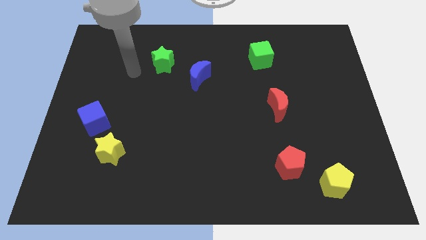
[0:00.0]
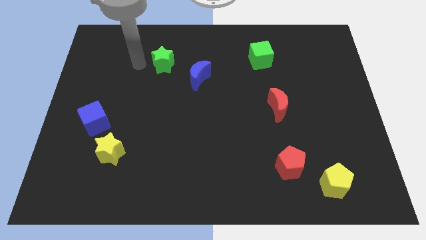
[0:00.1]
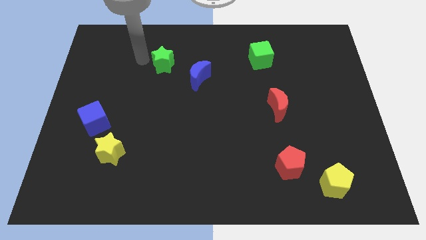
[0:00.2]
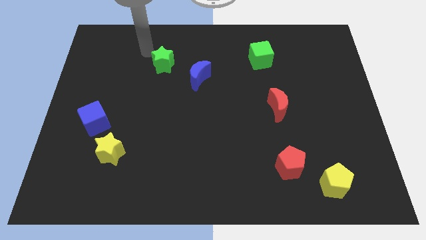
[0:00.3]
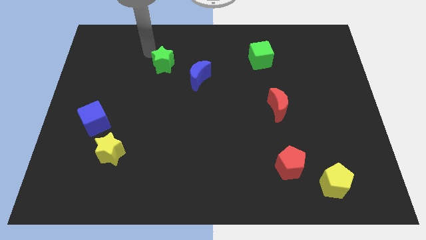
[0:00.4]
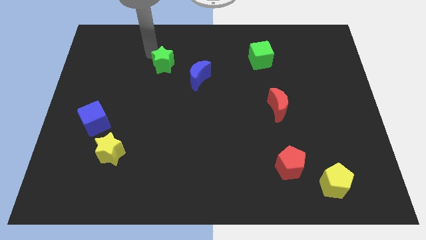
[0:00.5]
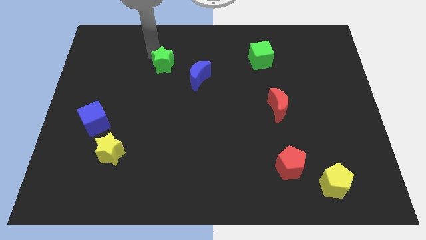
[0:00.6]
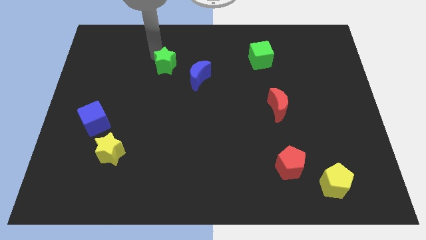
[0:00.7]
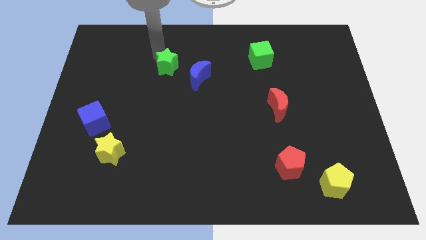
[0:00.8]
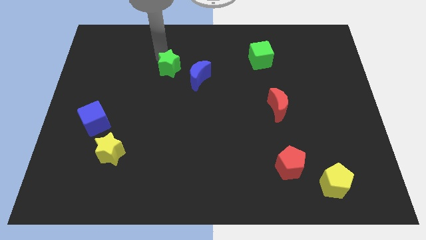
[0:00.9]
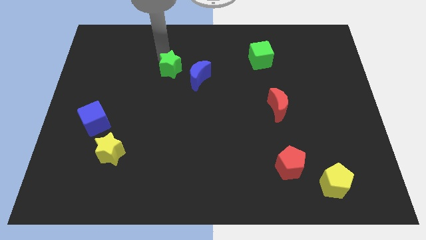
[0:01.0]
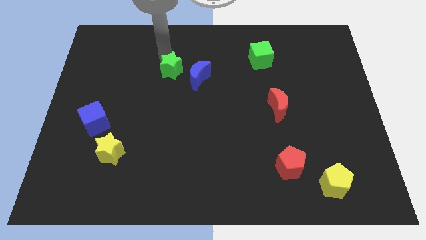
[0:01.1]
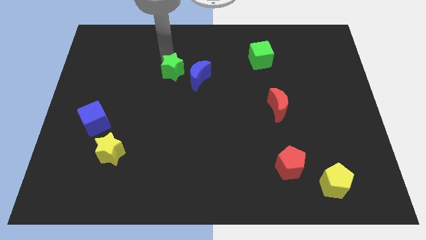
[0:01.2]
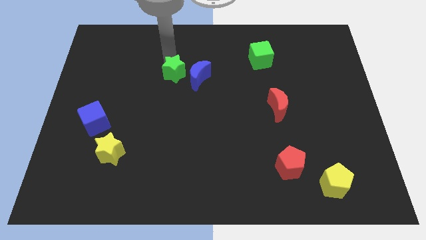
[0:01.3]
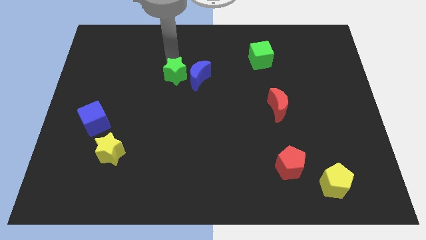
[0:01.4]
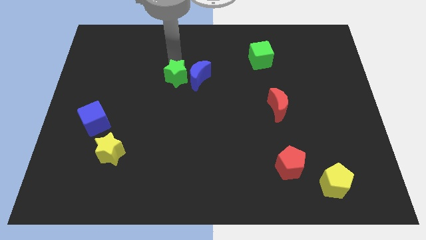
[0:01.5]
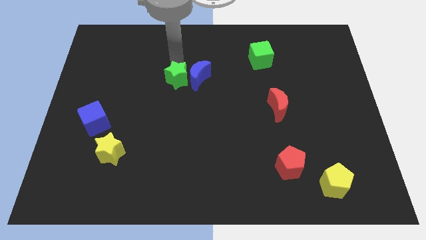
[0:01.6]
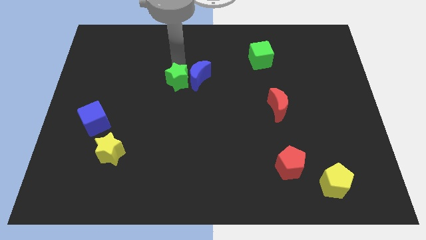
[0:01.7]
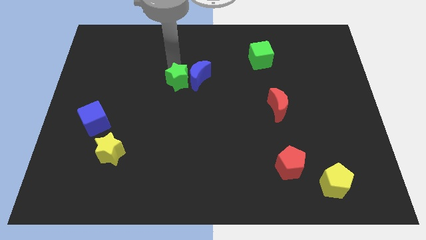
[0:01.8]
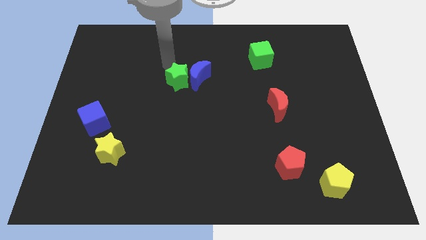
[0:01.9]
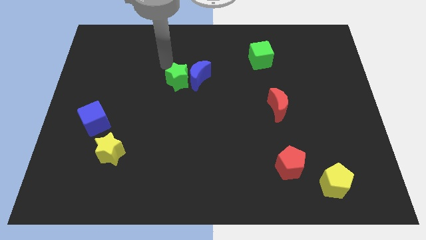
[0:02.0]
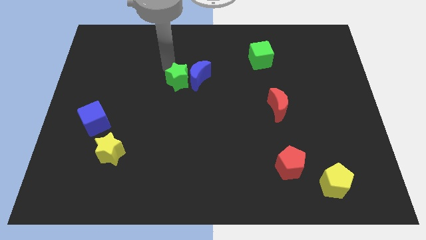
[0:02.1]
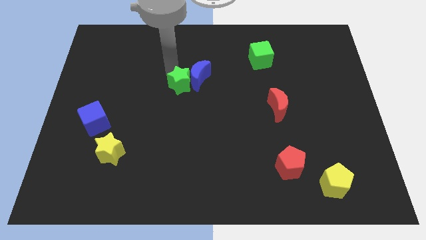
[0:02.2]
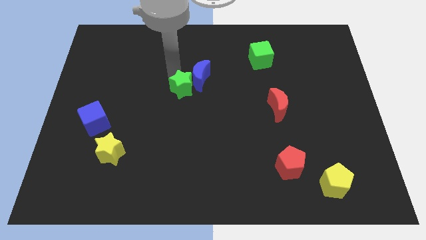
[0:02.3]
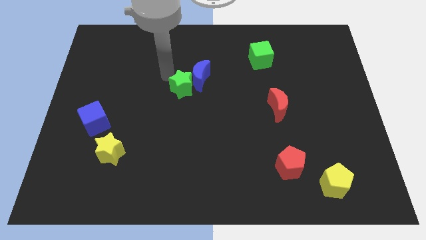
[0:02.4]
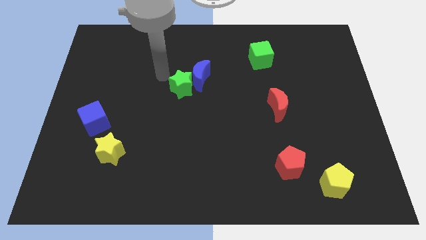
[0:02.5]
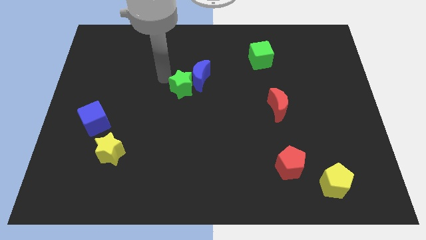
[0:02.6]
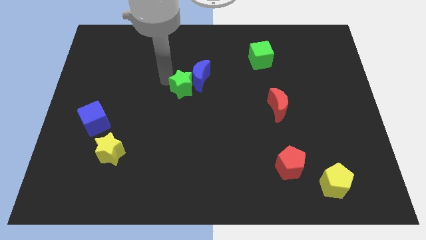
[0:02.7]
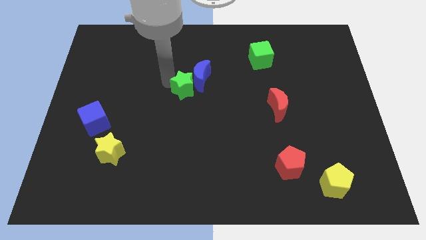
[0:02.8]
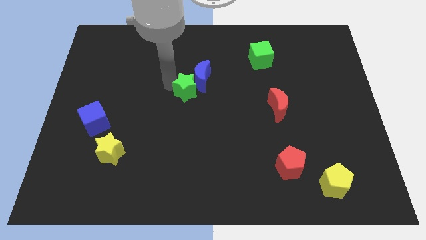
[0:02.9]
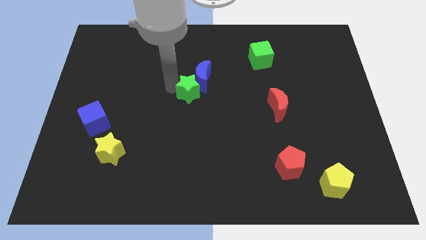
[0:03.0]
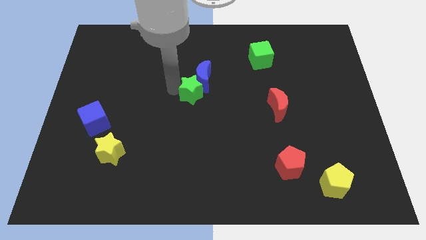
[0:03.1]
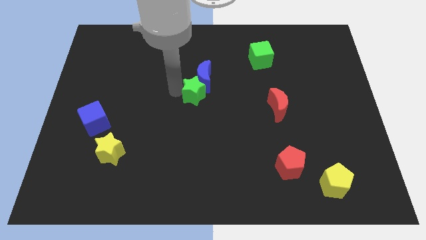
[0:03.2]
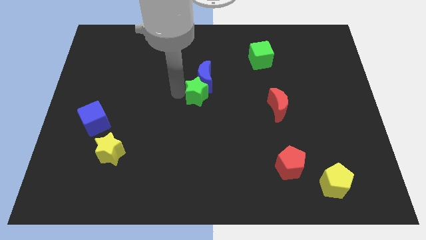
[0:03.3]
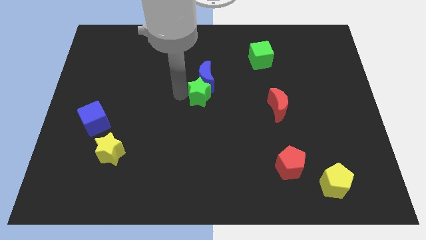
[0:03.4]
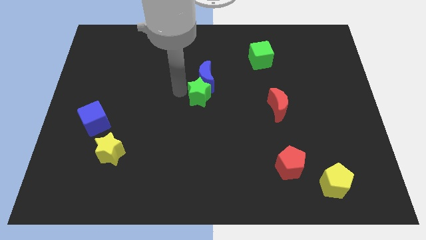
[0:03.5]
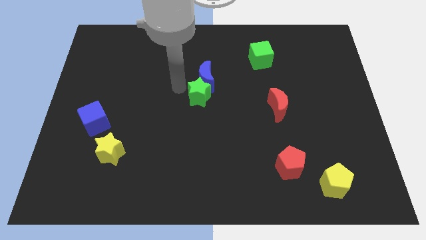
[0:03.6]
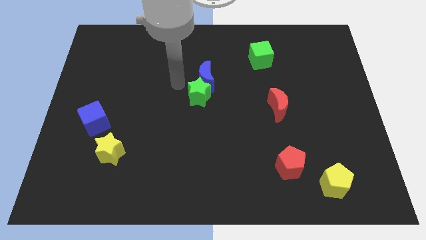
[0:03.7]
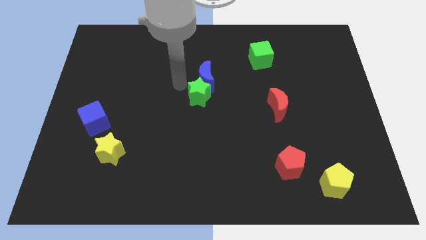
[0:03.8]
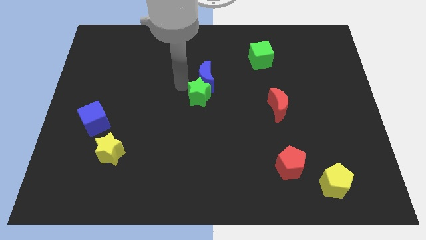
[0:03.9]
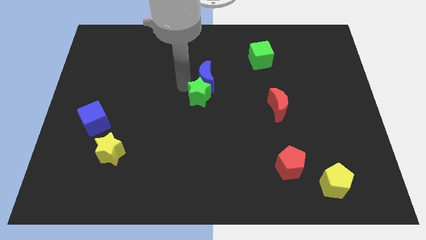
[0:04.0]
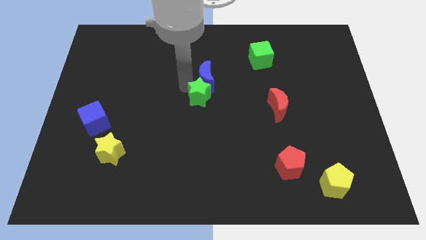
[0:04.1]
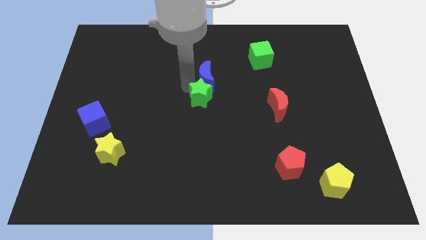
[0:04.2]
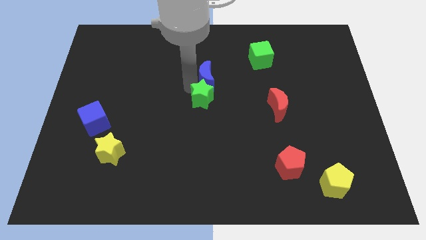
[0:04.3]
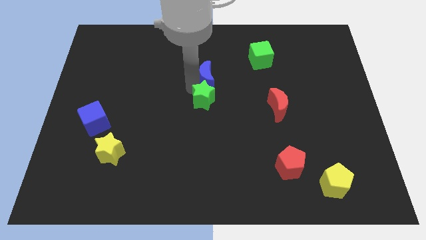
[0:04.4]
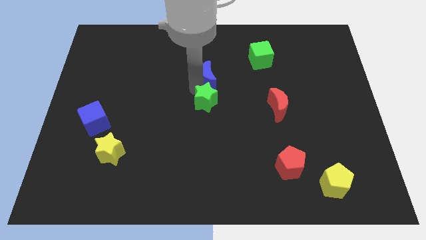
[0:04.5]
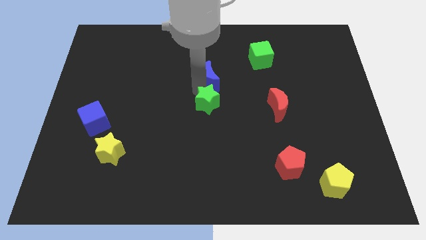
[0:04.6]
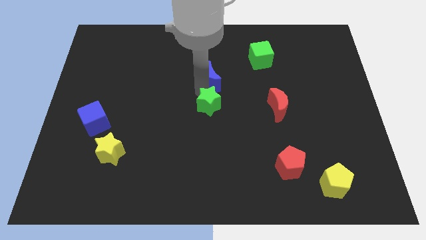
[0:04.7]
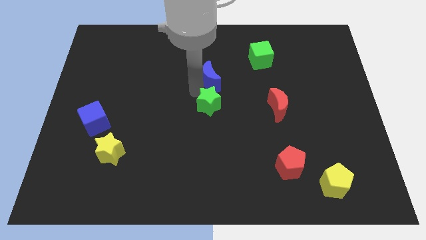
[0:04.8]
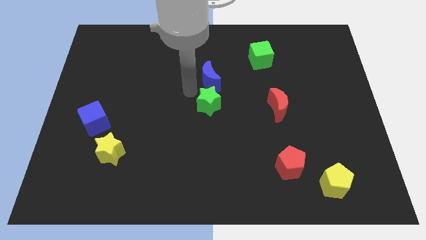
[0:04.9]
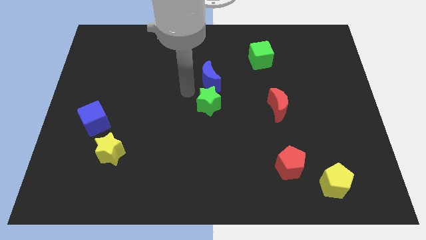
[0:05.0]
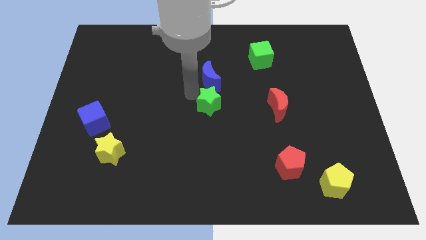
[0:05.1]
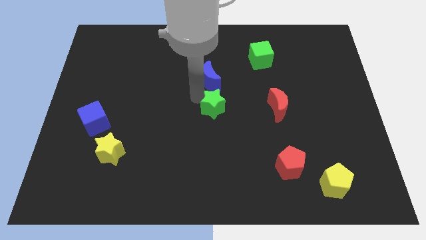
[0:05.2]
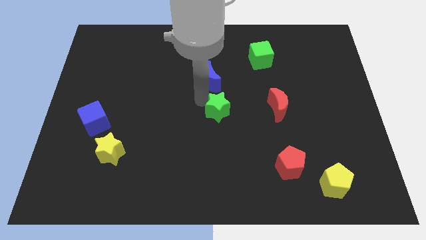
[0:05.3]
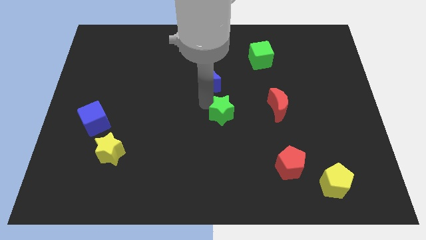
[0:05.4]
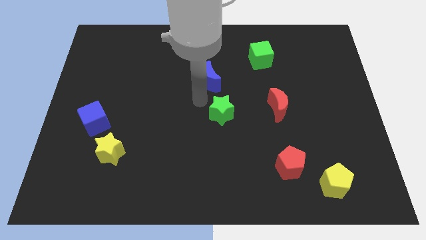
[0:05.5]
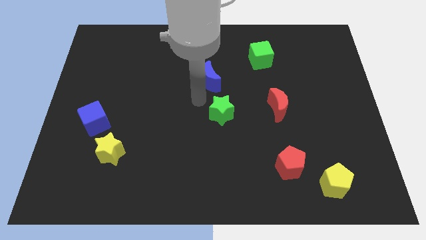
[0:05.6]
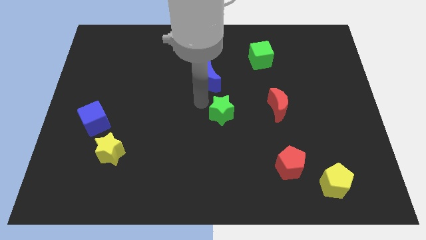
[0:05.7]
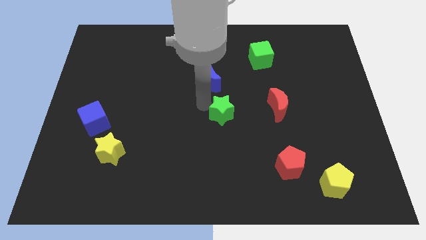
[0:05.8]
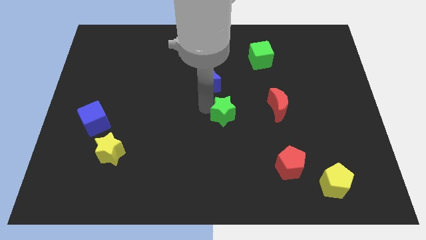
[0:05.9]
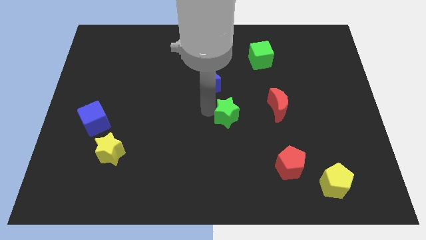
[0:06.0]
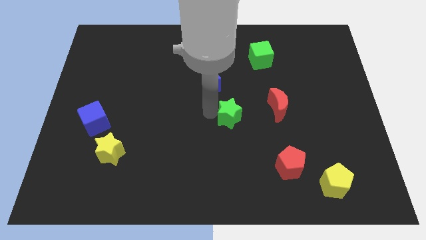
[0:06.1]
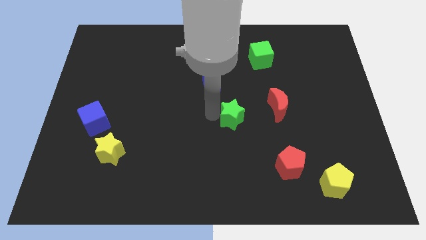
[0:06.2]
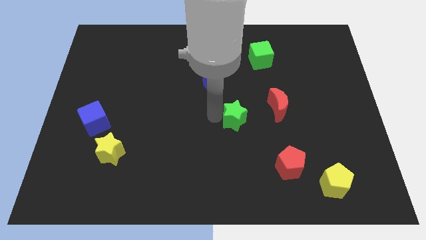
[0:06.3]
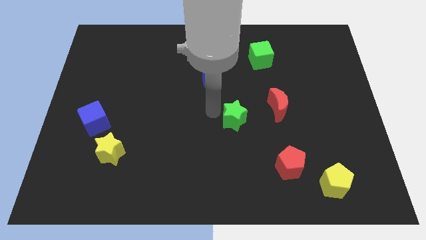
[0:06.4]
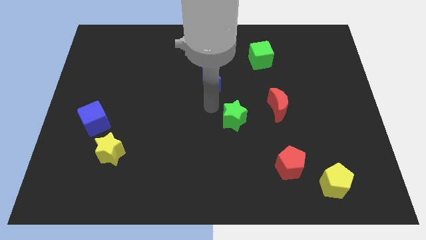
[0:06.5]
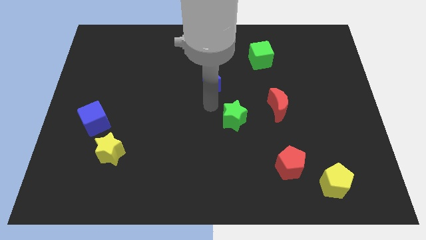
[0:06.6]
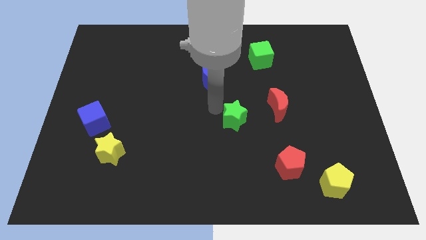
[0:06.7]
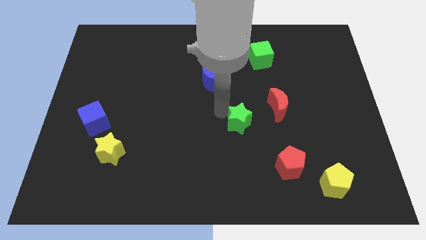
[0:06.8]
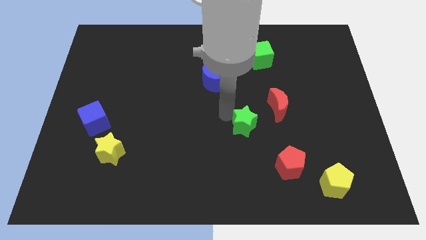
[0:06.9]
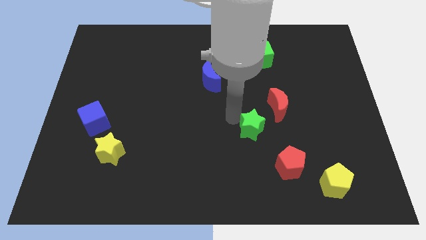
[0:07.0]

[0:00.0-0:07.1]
put the green star to the top left side of the red pentagon
